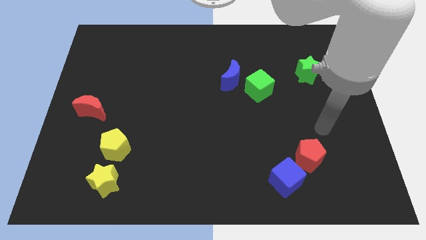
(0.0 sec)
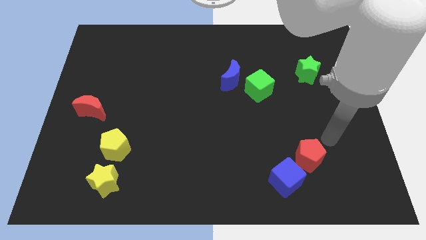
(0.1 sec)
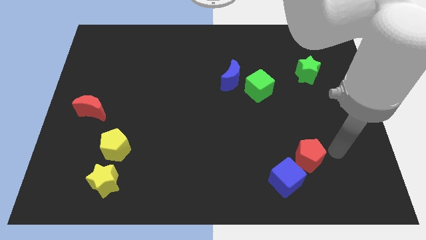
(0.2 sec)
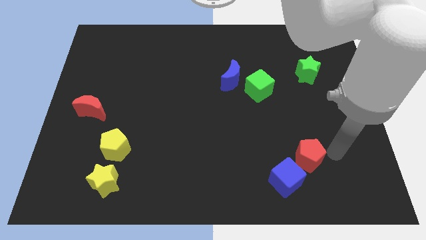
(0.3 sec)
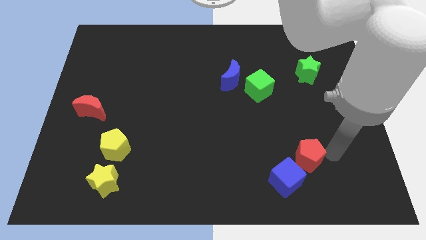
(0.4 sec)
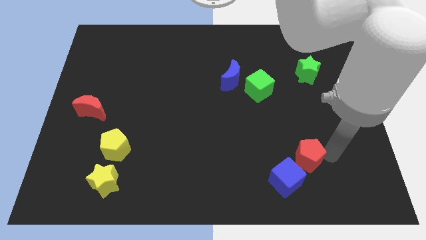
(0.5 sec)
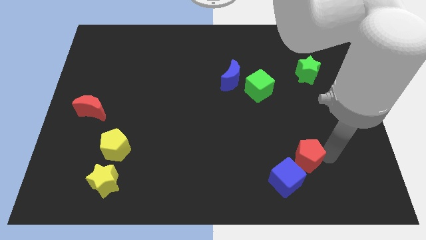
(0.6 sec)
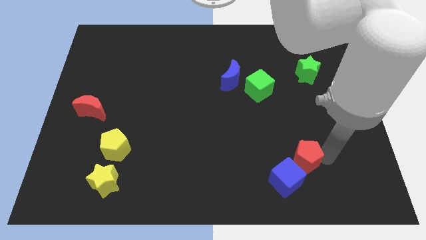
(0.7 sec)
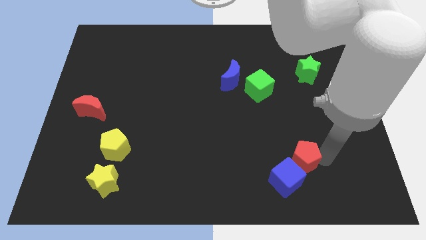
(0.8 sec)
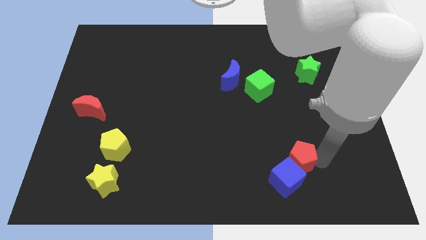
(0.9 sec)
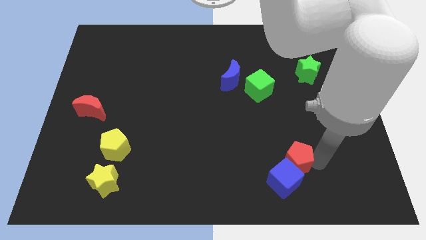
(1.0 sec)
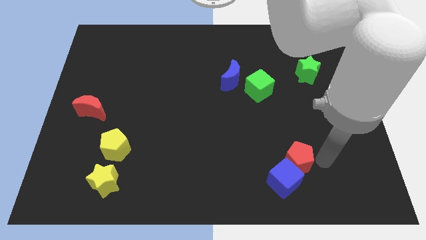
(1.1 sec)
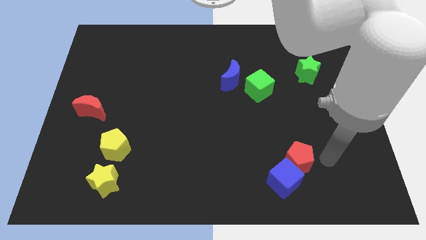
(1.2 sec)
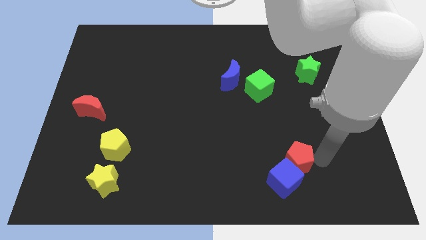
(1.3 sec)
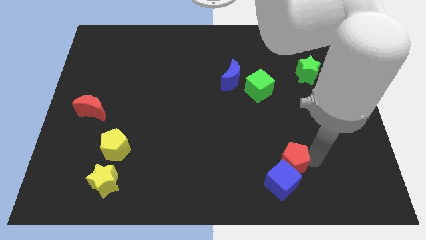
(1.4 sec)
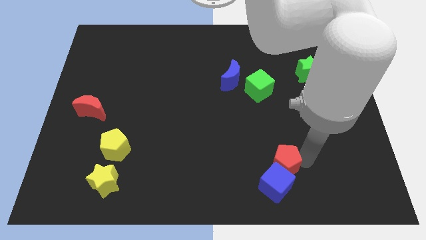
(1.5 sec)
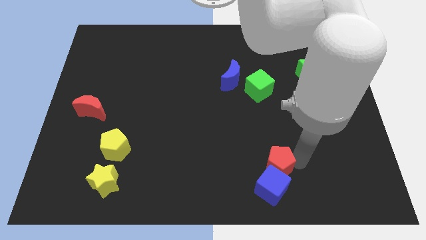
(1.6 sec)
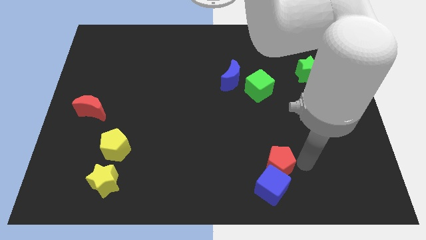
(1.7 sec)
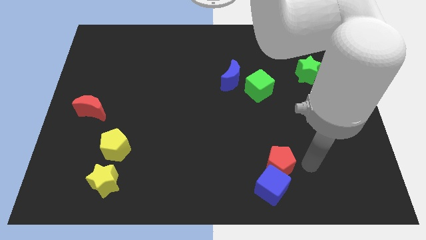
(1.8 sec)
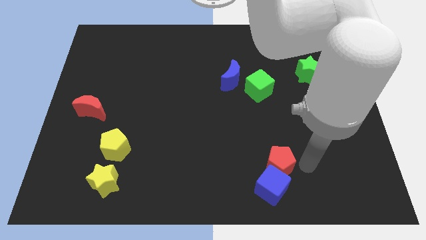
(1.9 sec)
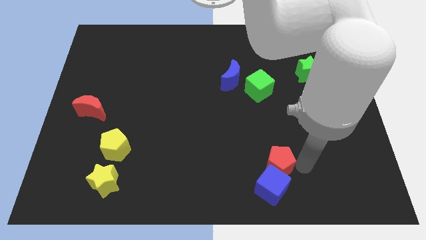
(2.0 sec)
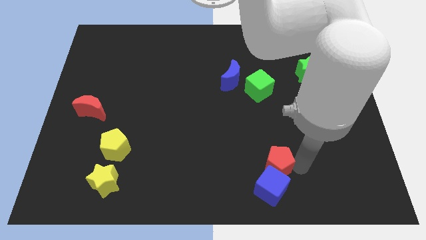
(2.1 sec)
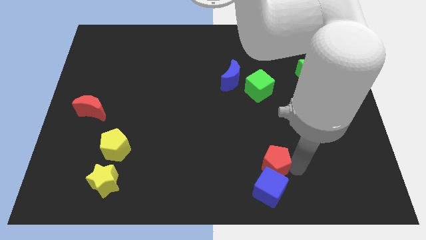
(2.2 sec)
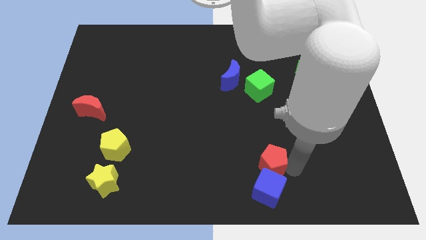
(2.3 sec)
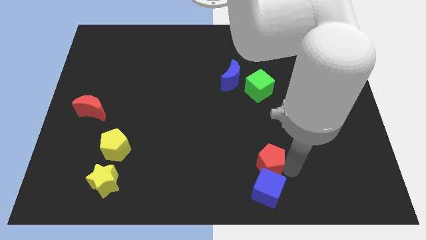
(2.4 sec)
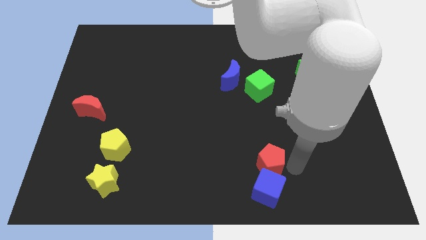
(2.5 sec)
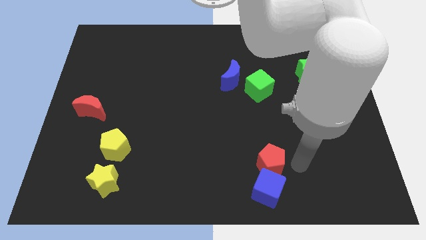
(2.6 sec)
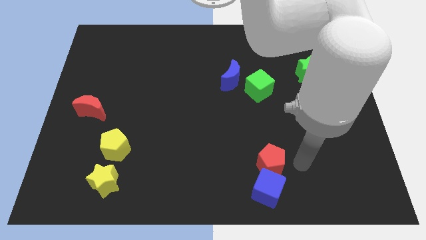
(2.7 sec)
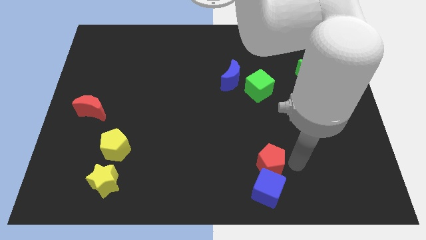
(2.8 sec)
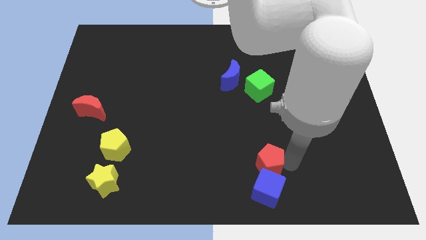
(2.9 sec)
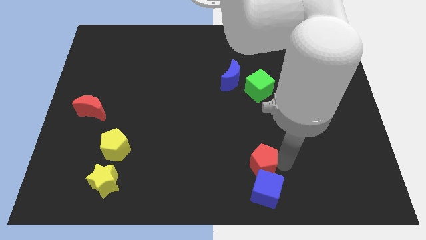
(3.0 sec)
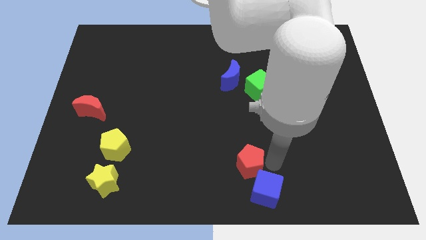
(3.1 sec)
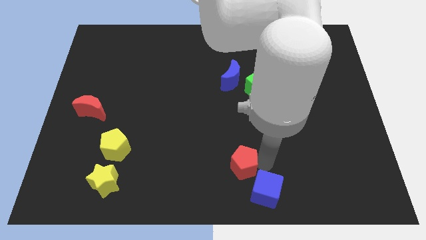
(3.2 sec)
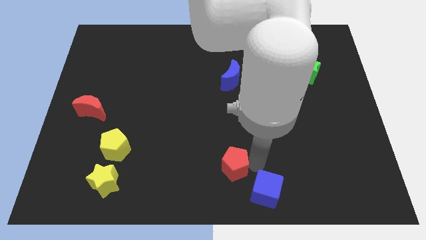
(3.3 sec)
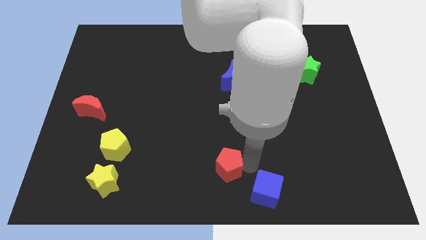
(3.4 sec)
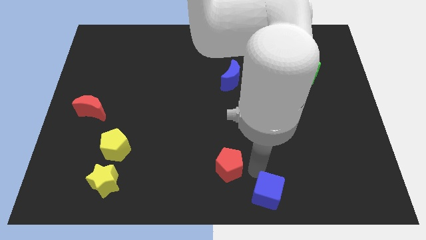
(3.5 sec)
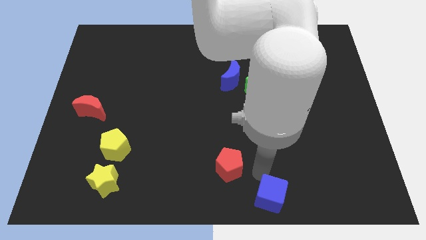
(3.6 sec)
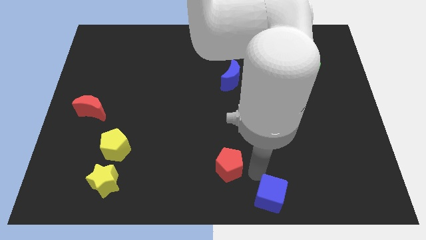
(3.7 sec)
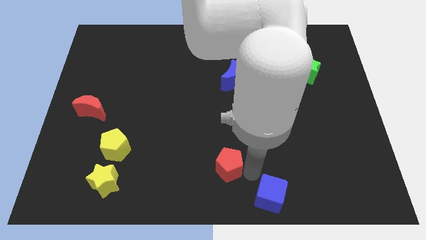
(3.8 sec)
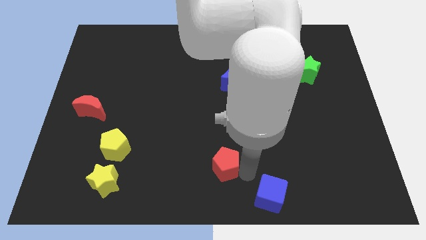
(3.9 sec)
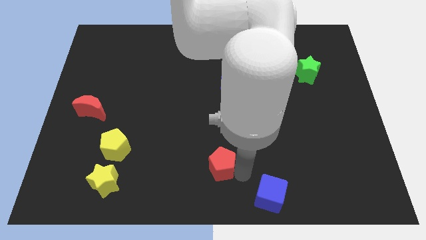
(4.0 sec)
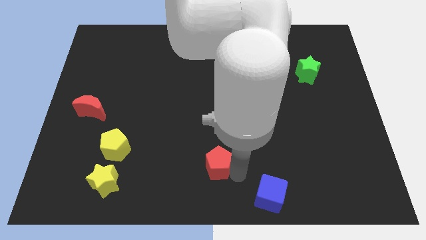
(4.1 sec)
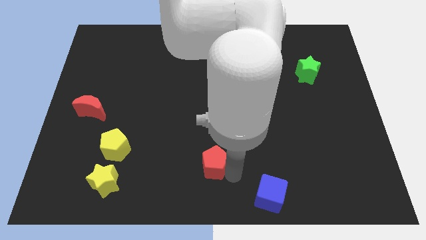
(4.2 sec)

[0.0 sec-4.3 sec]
move the red pentagon left

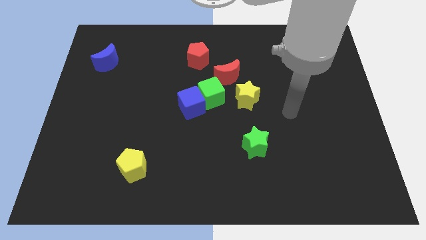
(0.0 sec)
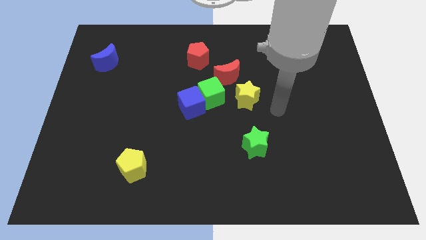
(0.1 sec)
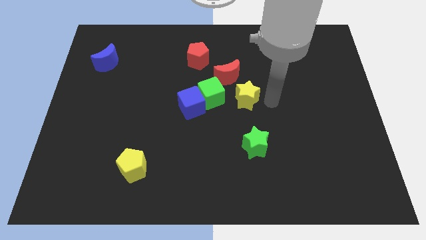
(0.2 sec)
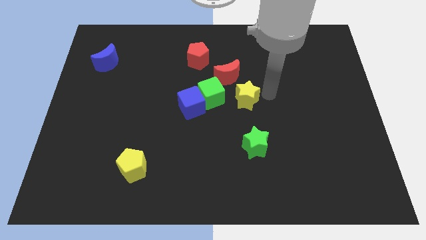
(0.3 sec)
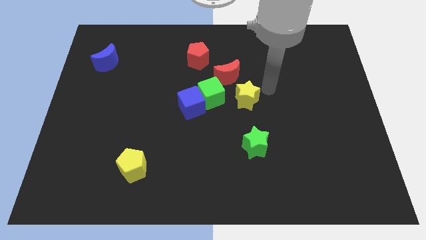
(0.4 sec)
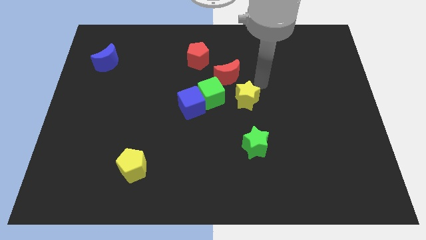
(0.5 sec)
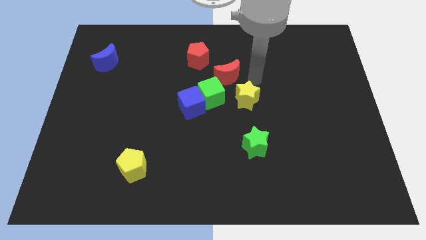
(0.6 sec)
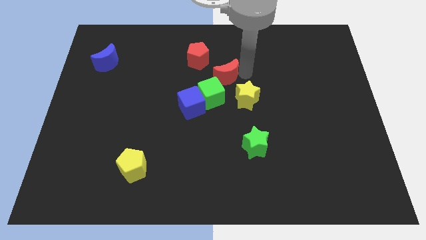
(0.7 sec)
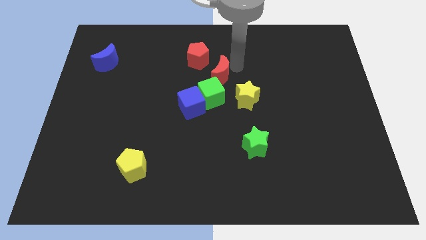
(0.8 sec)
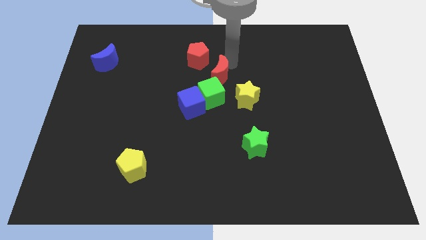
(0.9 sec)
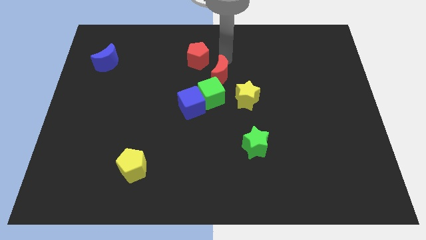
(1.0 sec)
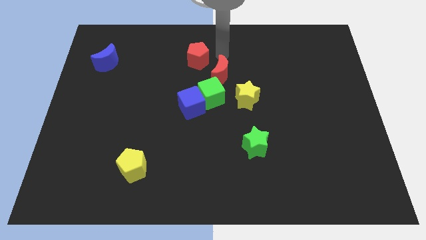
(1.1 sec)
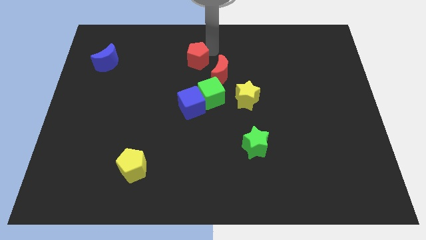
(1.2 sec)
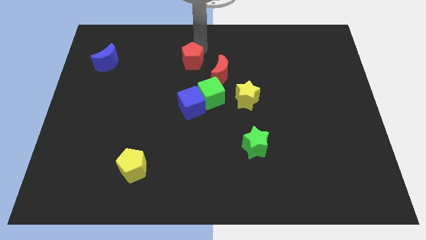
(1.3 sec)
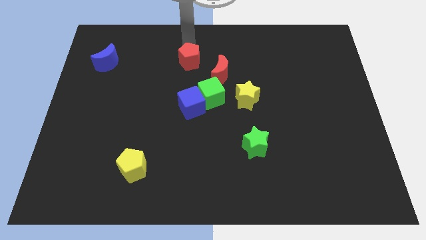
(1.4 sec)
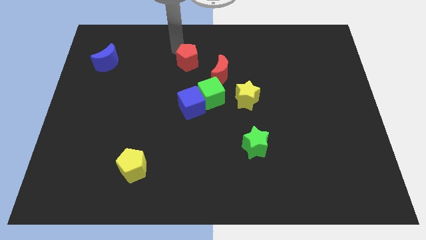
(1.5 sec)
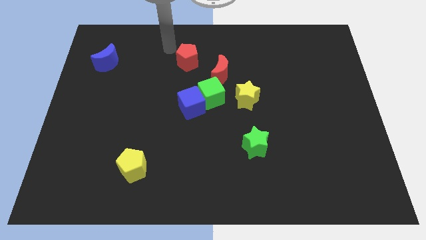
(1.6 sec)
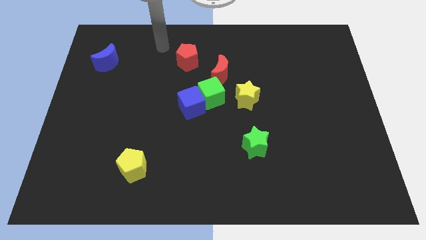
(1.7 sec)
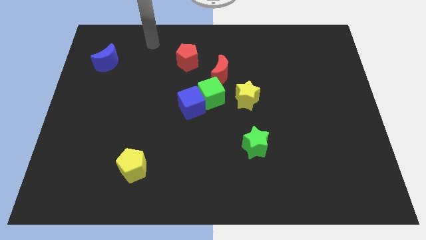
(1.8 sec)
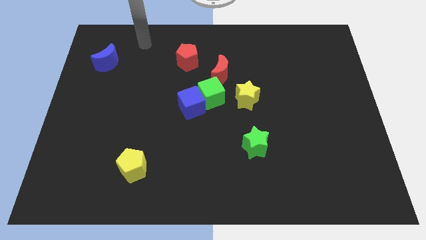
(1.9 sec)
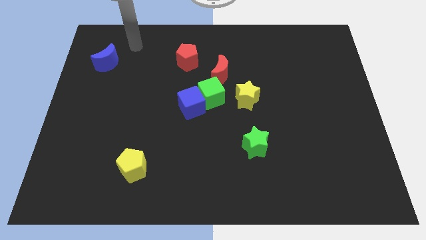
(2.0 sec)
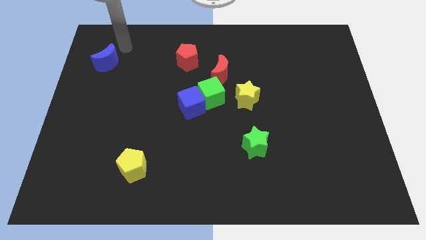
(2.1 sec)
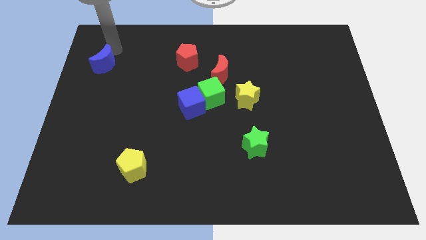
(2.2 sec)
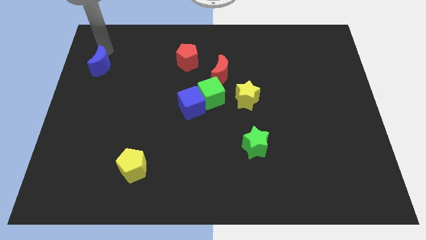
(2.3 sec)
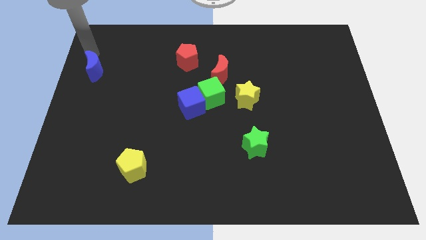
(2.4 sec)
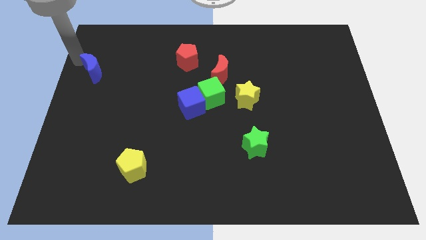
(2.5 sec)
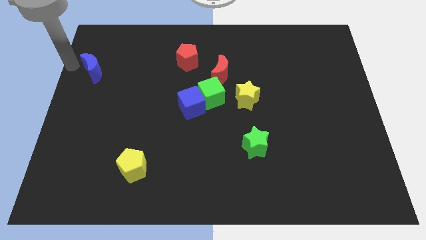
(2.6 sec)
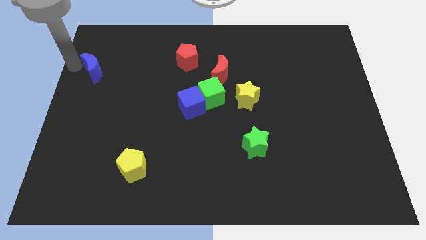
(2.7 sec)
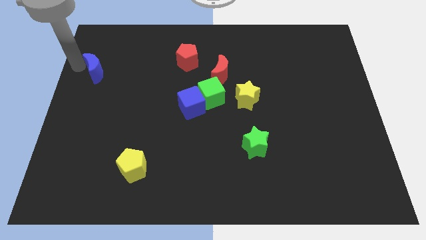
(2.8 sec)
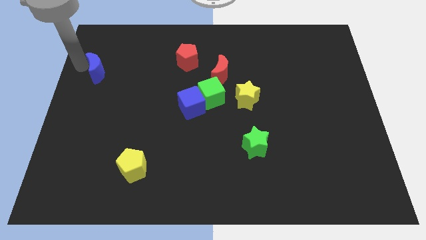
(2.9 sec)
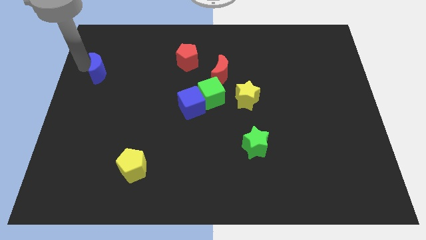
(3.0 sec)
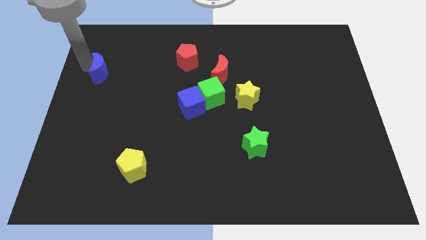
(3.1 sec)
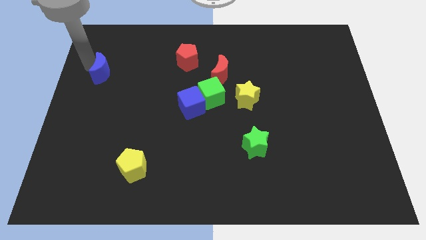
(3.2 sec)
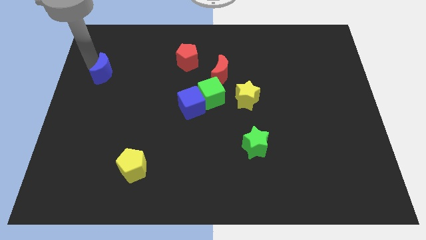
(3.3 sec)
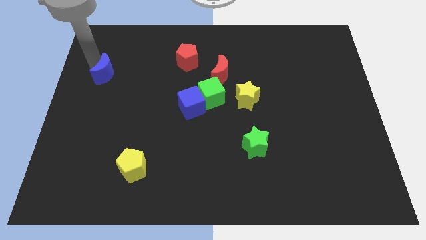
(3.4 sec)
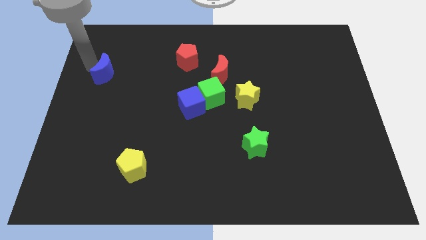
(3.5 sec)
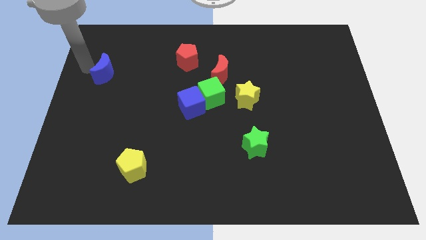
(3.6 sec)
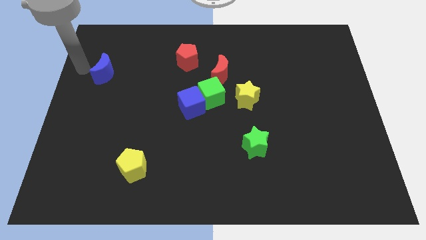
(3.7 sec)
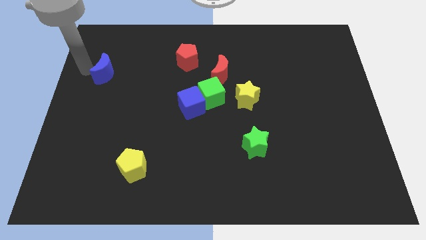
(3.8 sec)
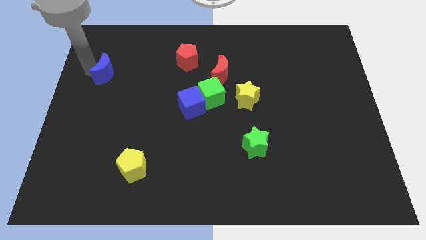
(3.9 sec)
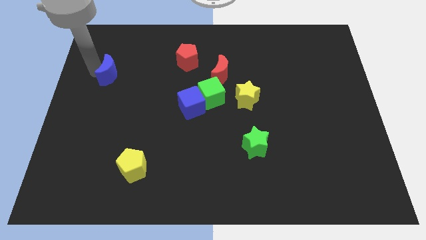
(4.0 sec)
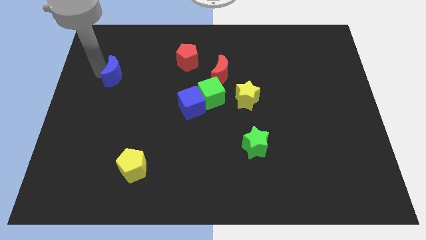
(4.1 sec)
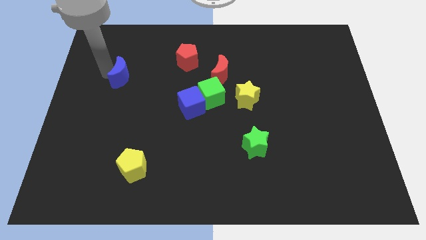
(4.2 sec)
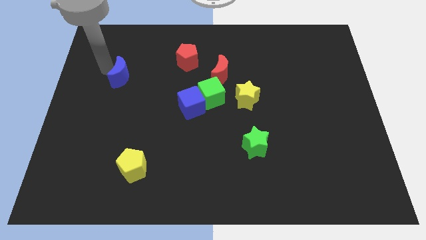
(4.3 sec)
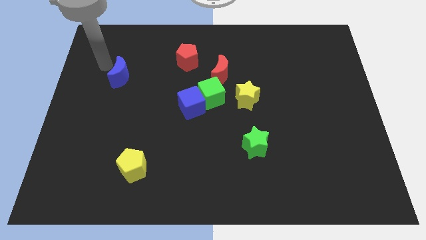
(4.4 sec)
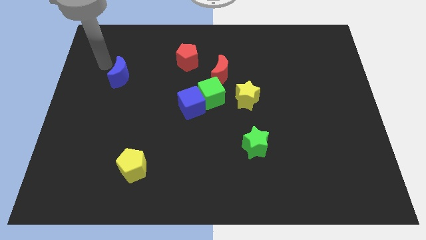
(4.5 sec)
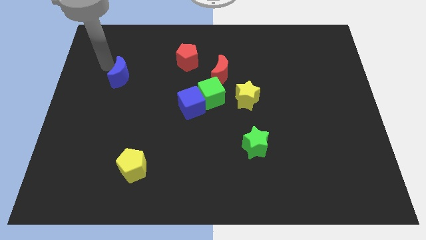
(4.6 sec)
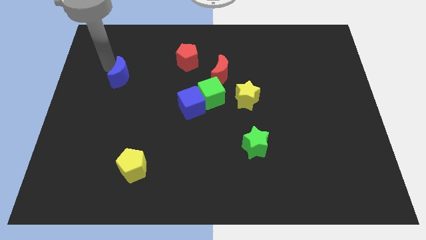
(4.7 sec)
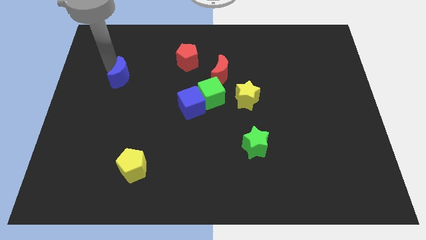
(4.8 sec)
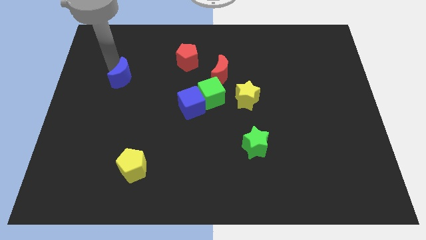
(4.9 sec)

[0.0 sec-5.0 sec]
slightly push the blue moon down and then to the right
